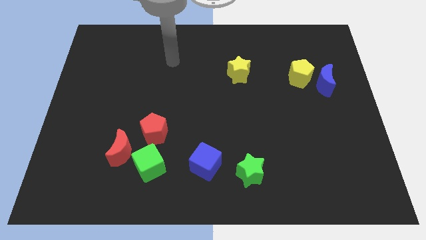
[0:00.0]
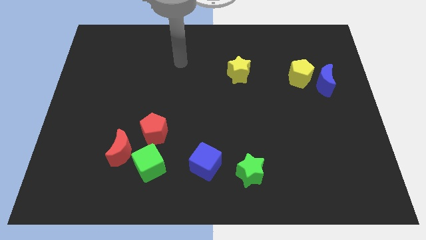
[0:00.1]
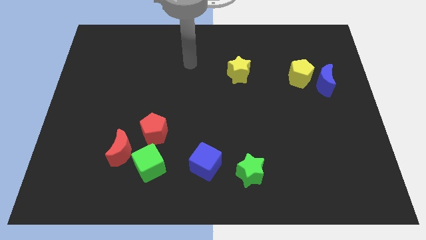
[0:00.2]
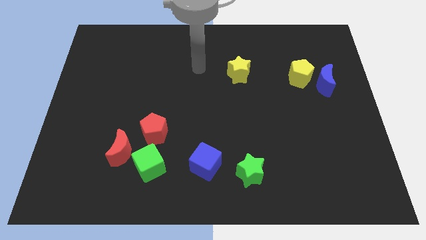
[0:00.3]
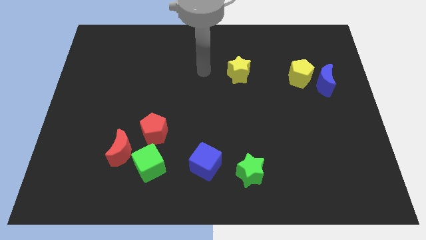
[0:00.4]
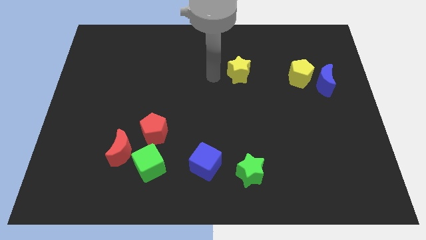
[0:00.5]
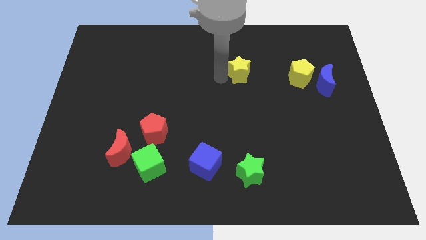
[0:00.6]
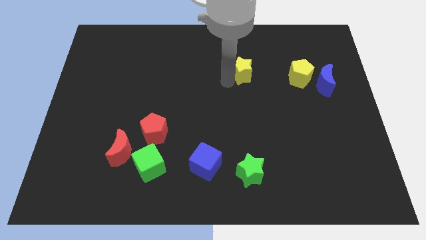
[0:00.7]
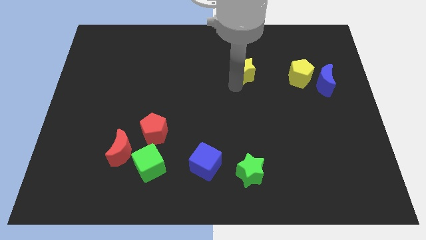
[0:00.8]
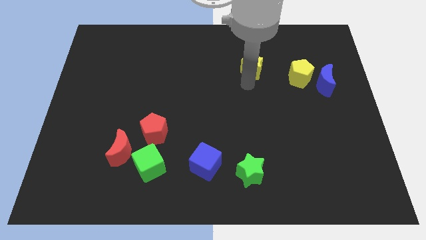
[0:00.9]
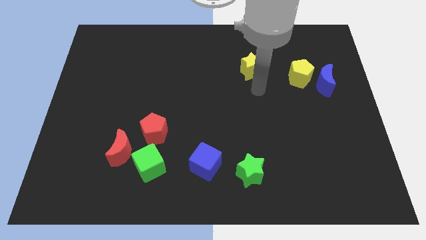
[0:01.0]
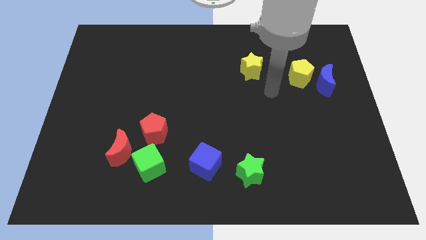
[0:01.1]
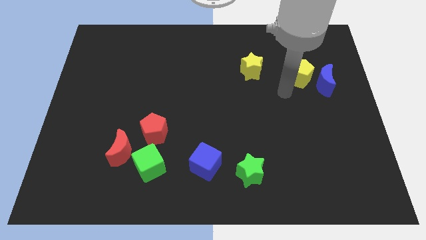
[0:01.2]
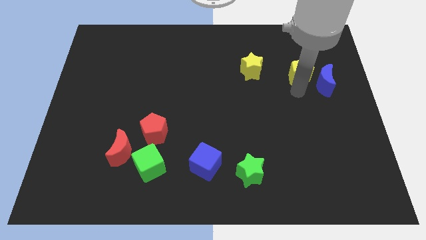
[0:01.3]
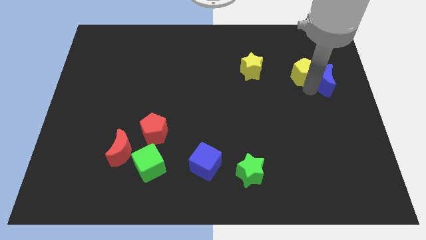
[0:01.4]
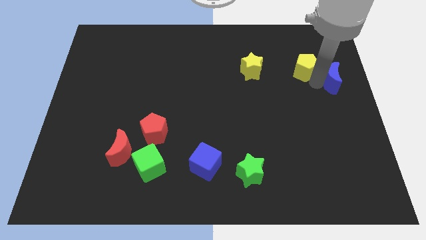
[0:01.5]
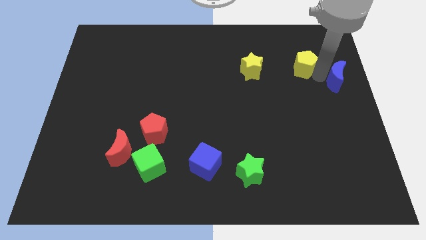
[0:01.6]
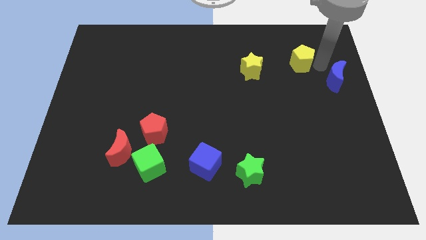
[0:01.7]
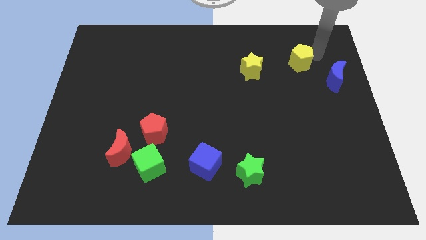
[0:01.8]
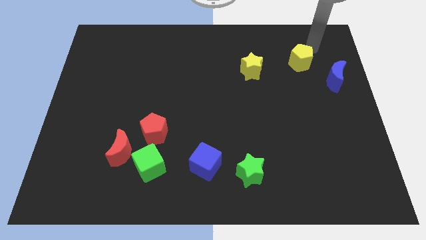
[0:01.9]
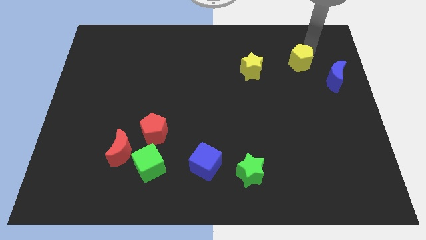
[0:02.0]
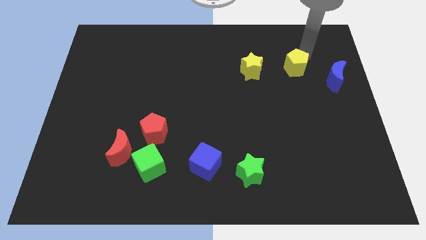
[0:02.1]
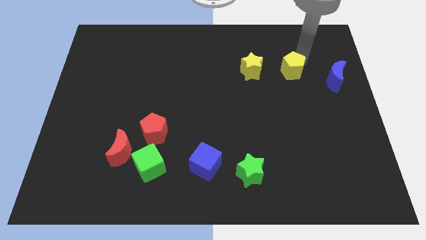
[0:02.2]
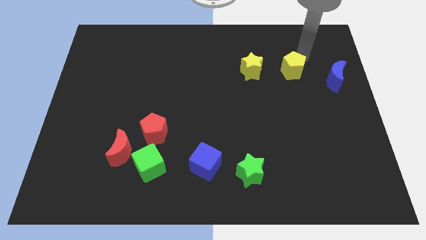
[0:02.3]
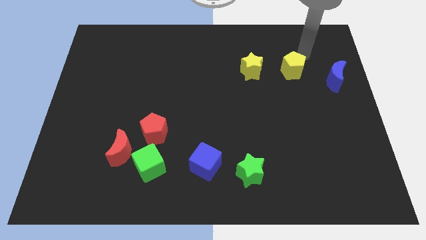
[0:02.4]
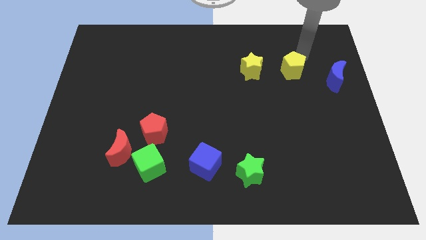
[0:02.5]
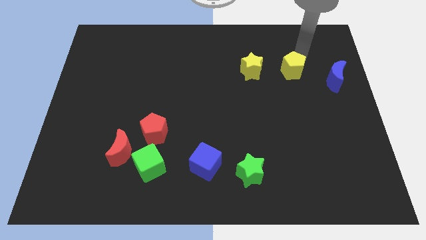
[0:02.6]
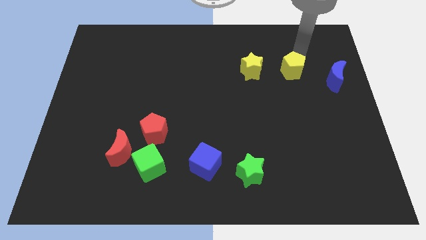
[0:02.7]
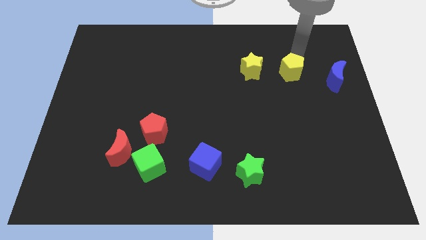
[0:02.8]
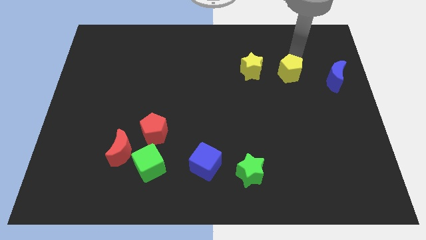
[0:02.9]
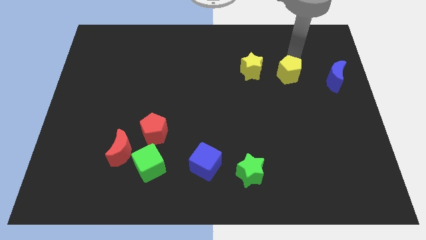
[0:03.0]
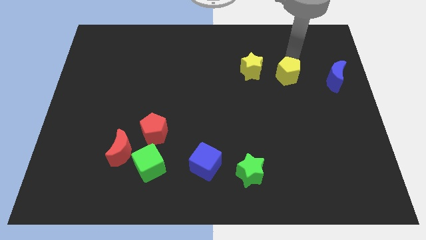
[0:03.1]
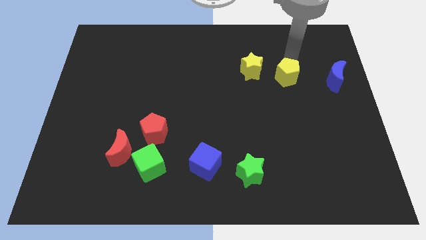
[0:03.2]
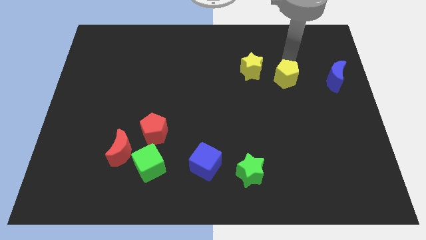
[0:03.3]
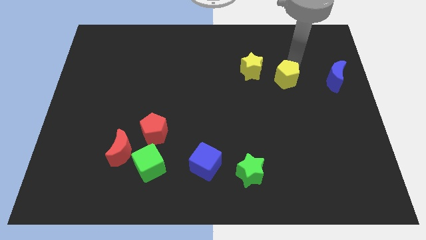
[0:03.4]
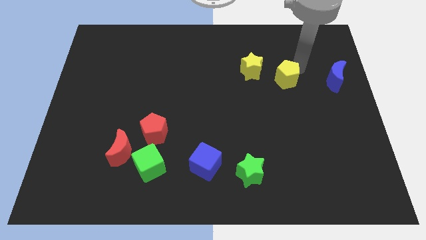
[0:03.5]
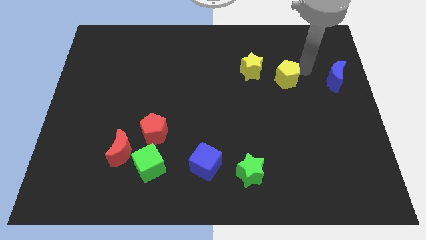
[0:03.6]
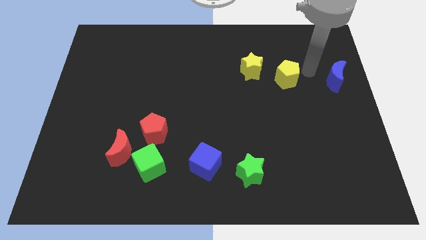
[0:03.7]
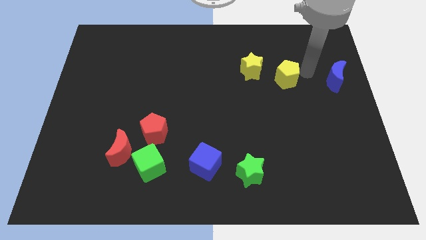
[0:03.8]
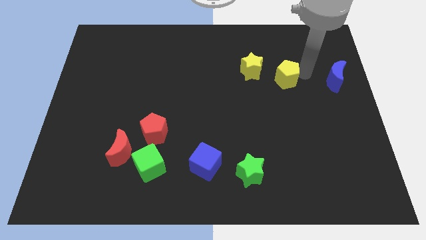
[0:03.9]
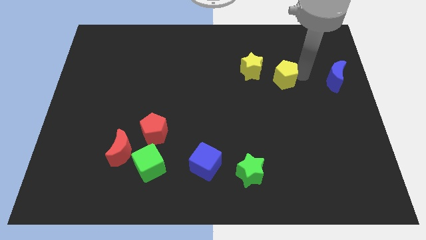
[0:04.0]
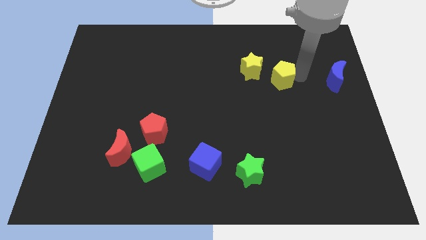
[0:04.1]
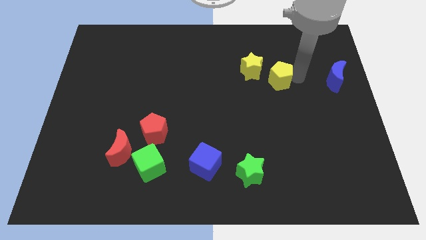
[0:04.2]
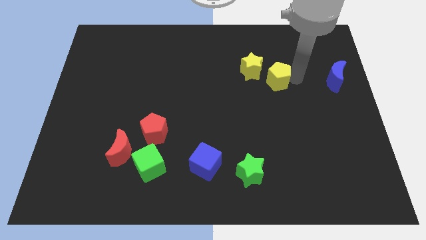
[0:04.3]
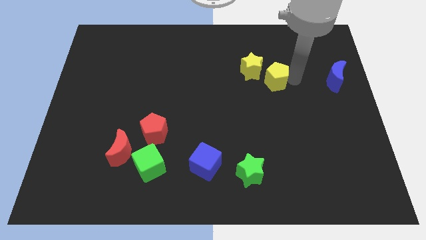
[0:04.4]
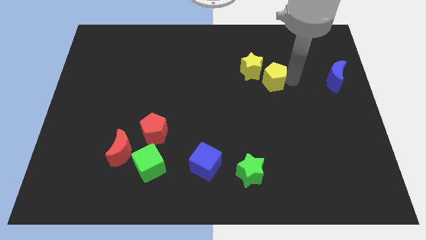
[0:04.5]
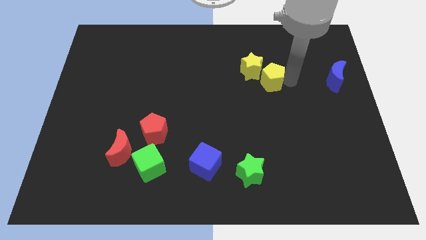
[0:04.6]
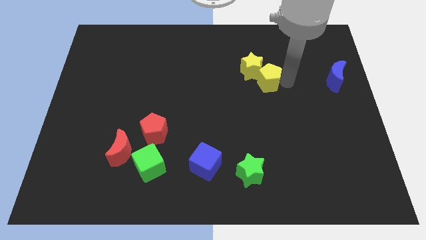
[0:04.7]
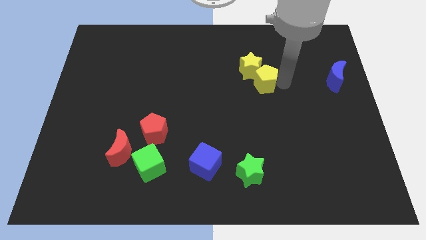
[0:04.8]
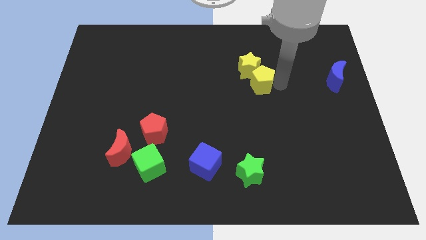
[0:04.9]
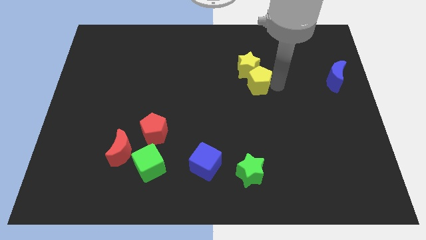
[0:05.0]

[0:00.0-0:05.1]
slide the yellow pentagon to the middle

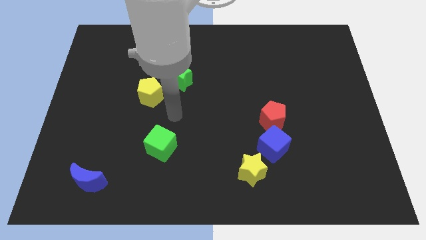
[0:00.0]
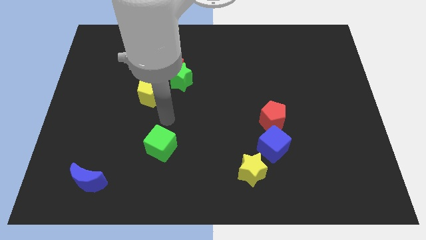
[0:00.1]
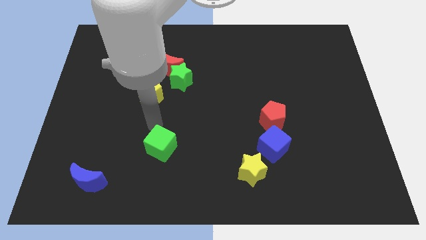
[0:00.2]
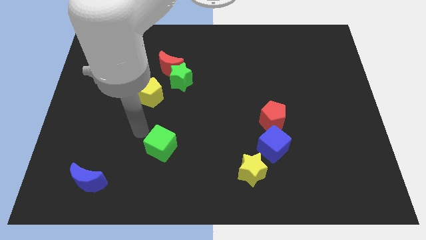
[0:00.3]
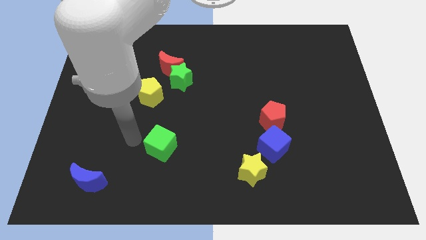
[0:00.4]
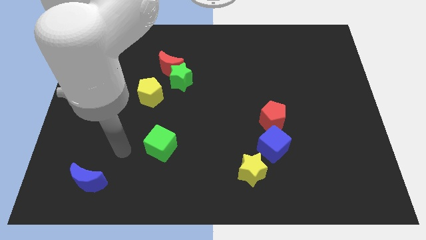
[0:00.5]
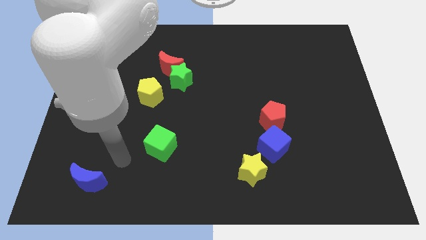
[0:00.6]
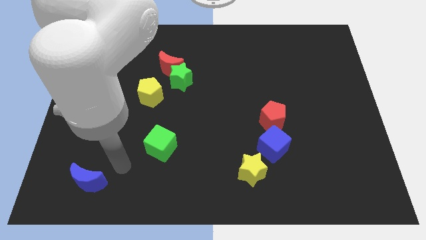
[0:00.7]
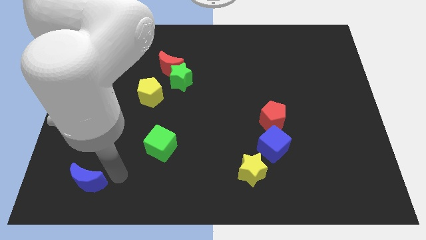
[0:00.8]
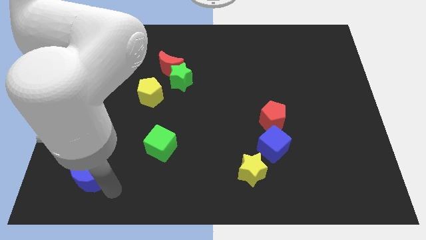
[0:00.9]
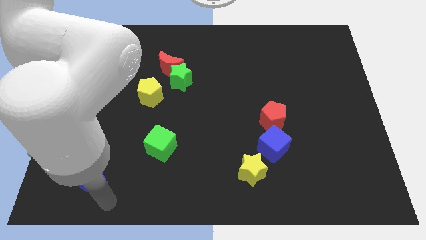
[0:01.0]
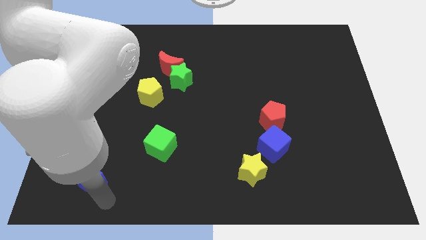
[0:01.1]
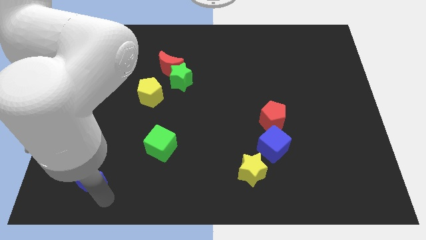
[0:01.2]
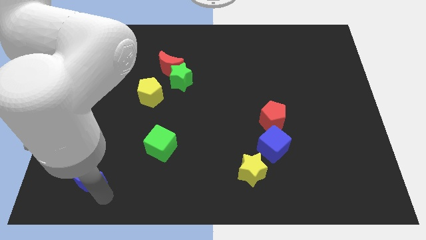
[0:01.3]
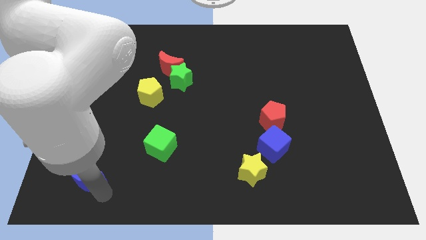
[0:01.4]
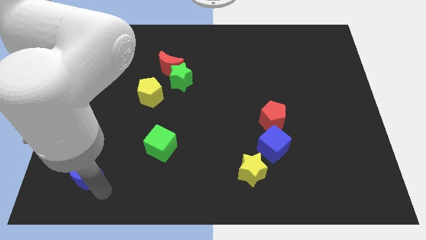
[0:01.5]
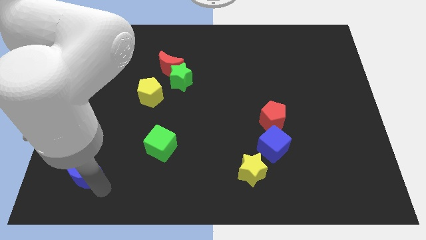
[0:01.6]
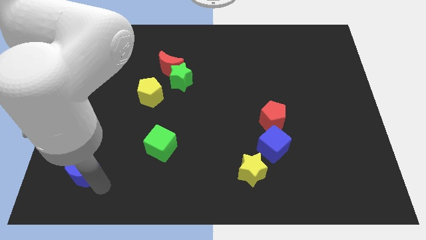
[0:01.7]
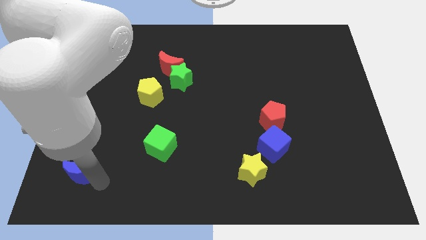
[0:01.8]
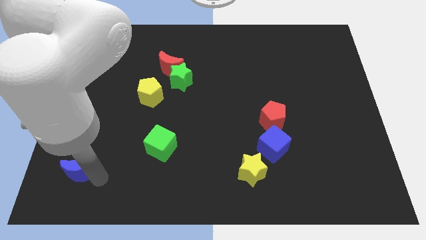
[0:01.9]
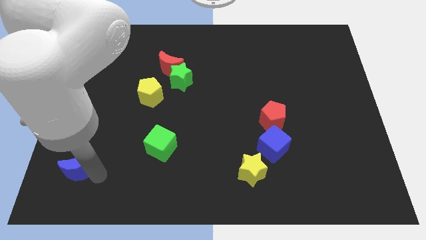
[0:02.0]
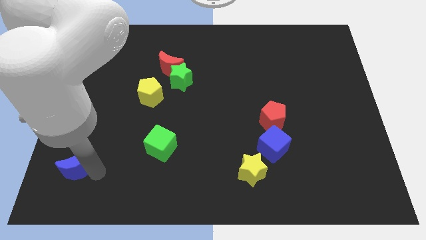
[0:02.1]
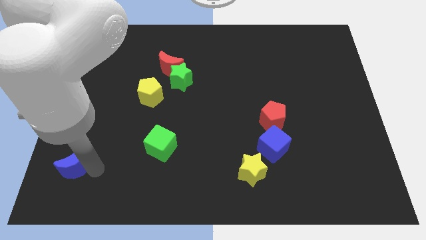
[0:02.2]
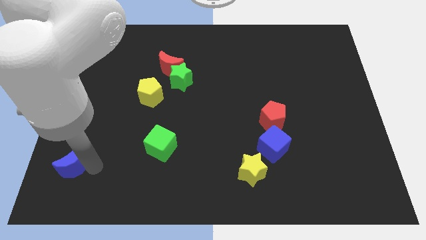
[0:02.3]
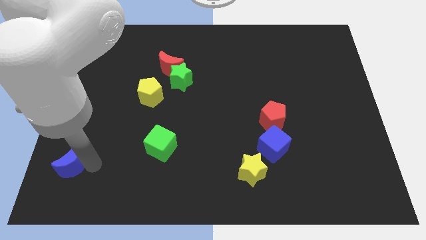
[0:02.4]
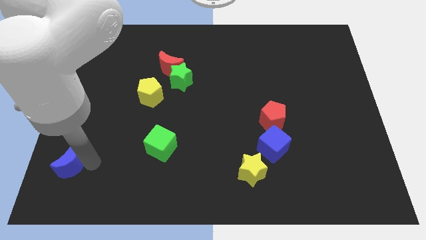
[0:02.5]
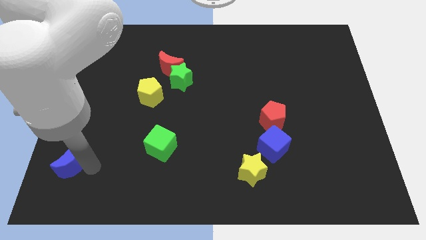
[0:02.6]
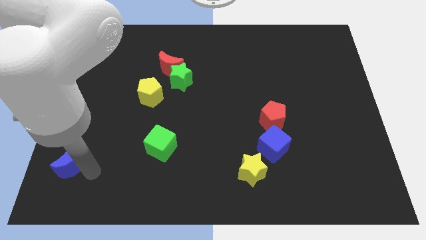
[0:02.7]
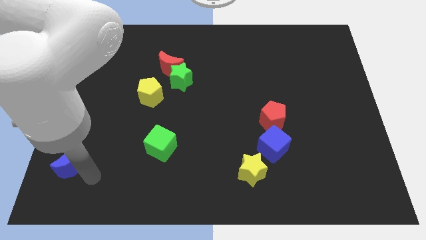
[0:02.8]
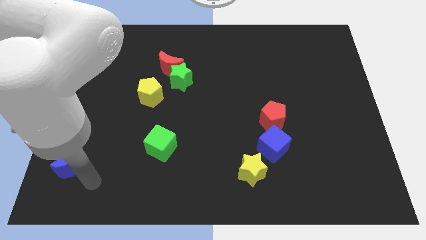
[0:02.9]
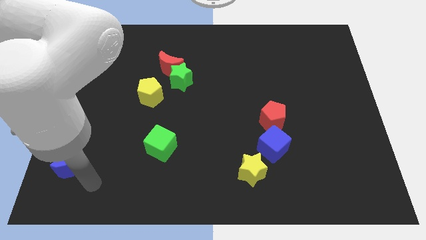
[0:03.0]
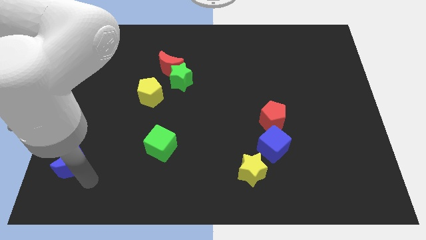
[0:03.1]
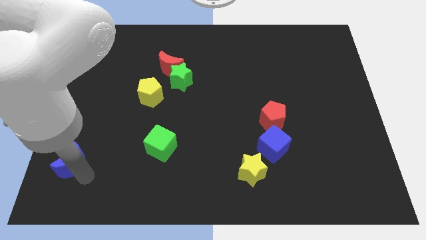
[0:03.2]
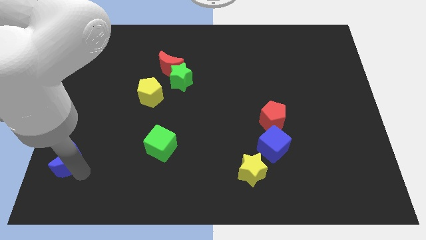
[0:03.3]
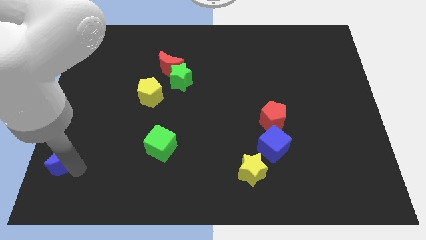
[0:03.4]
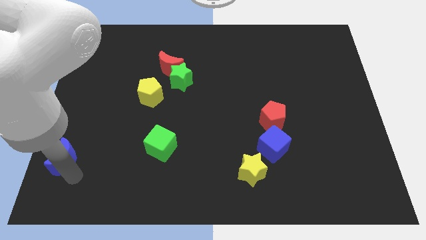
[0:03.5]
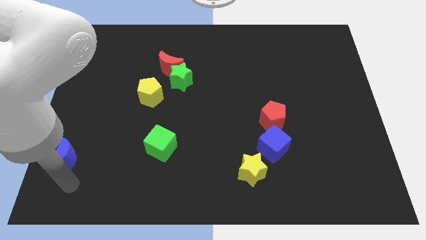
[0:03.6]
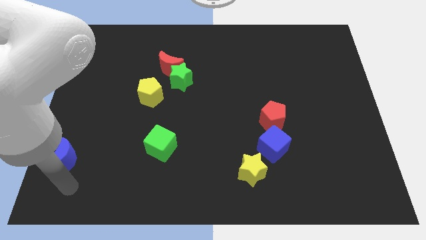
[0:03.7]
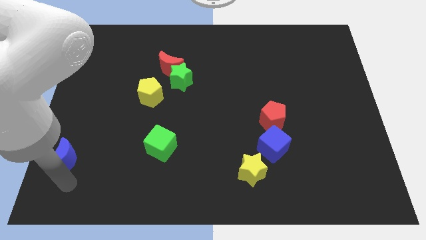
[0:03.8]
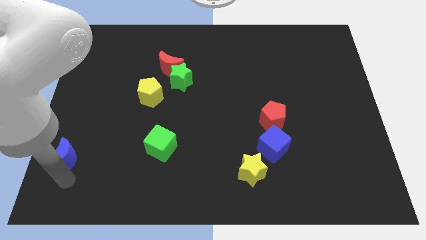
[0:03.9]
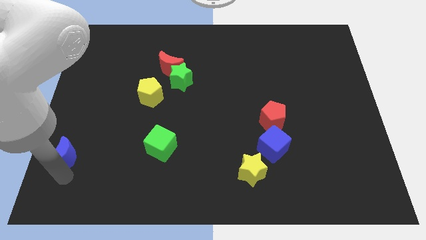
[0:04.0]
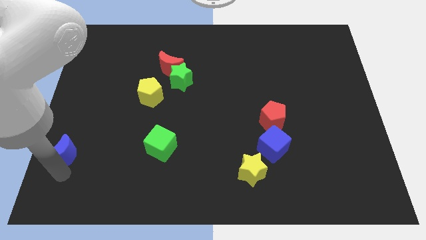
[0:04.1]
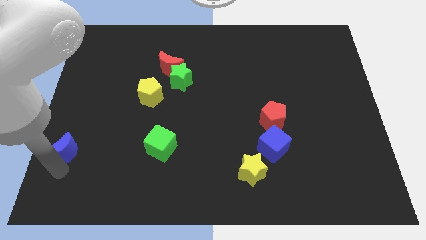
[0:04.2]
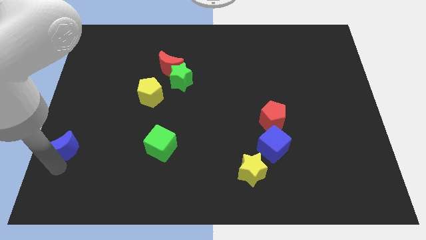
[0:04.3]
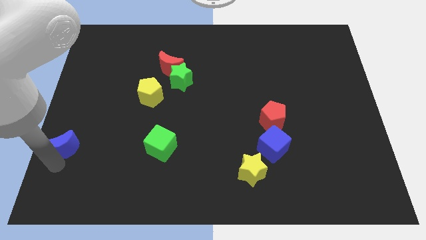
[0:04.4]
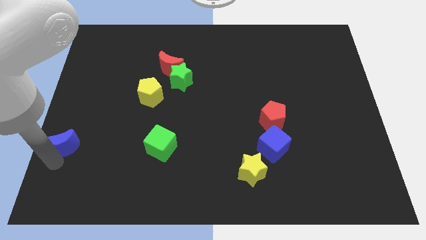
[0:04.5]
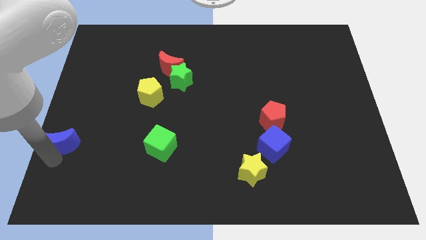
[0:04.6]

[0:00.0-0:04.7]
push the blue moon to the left side
